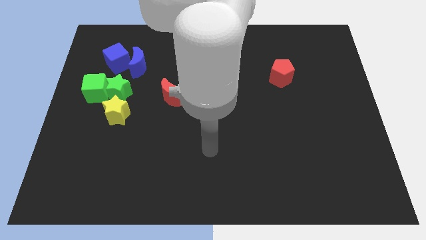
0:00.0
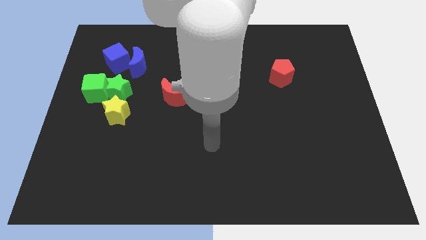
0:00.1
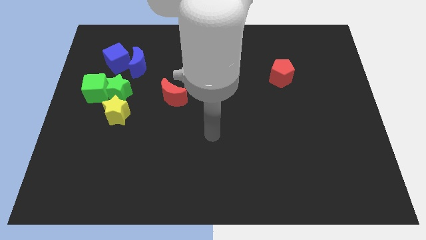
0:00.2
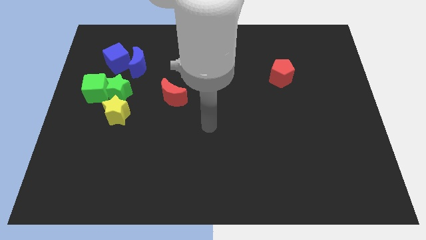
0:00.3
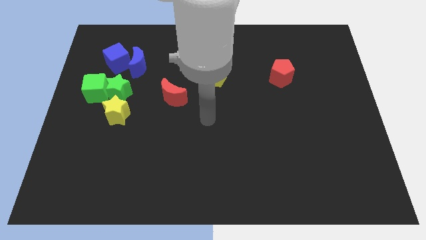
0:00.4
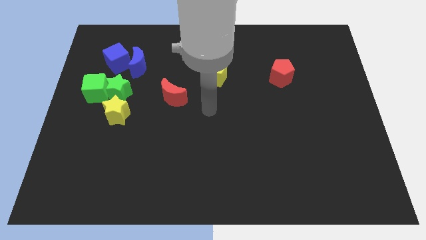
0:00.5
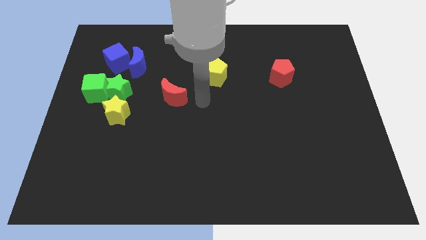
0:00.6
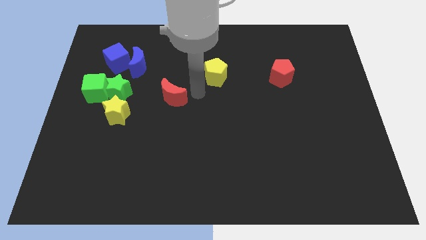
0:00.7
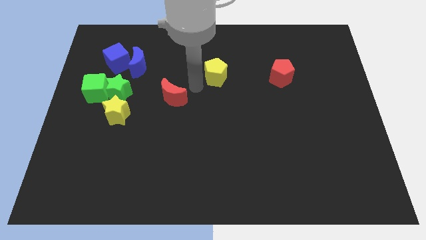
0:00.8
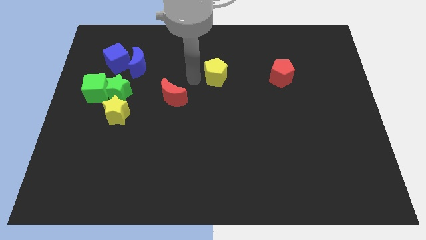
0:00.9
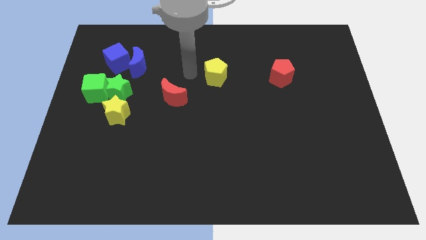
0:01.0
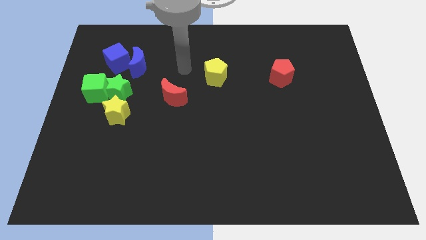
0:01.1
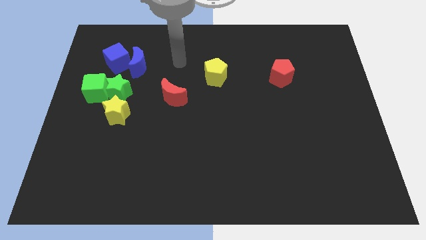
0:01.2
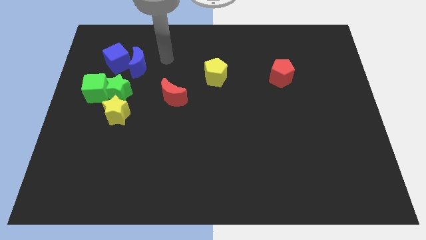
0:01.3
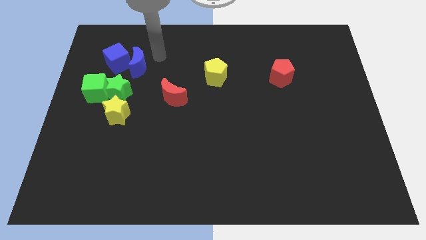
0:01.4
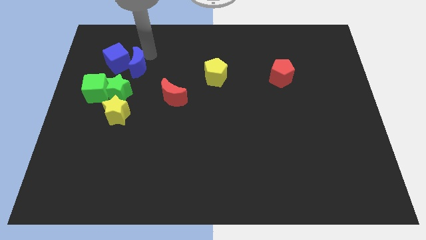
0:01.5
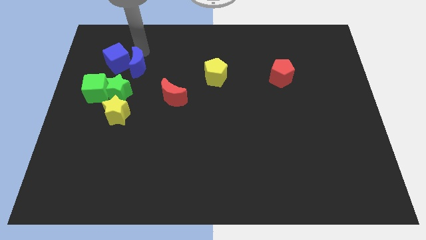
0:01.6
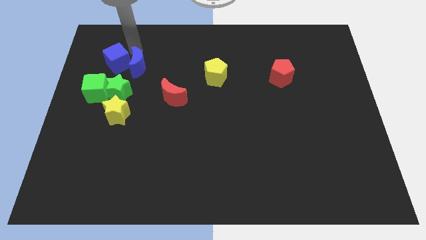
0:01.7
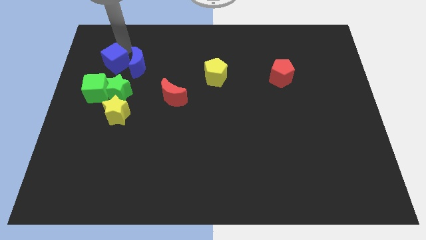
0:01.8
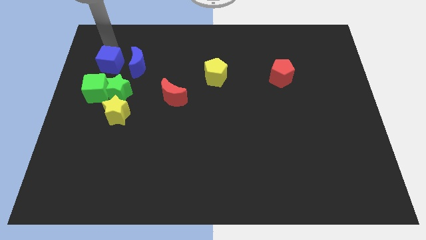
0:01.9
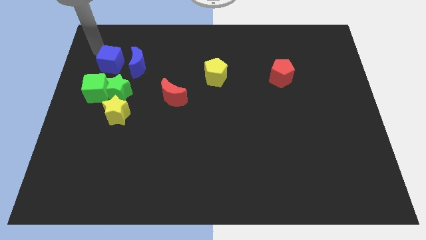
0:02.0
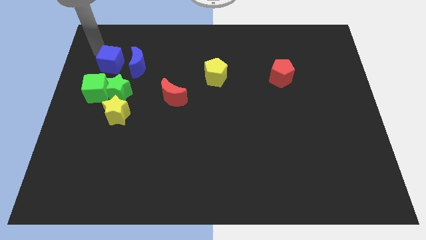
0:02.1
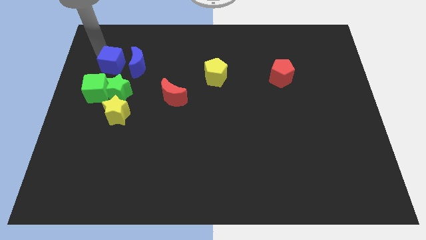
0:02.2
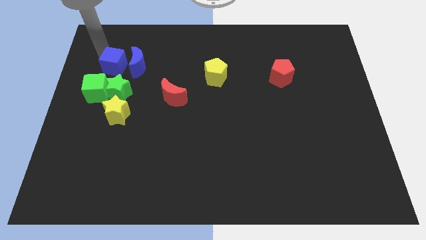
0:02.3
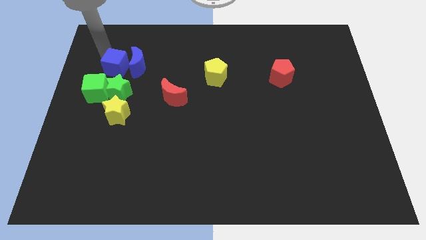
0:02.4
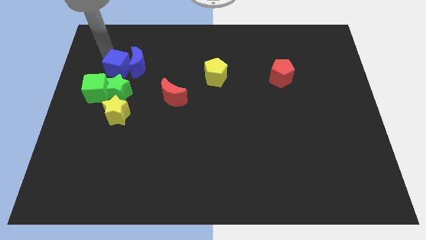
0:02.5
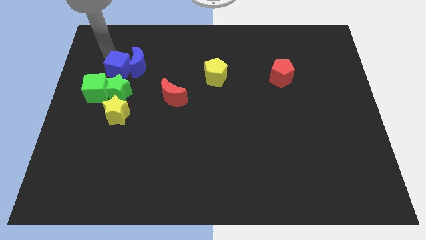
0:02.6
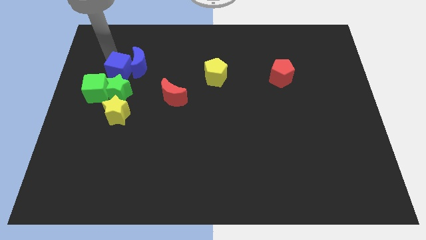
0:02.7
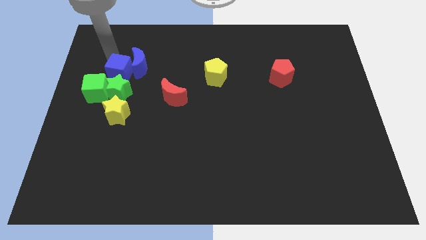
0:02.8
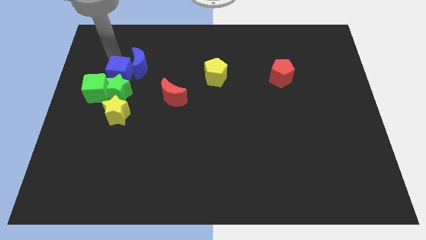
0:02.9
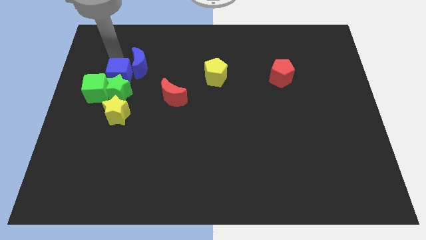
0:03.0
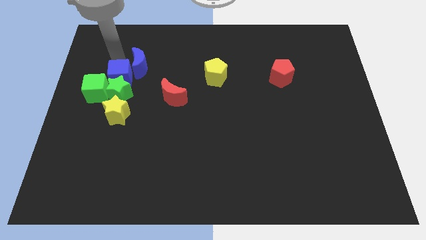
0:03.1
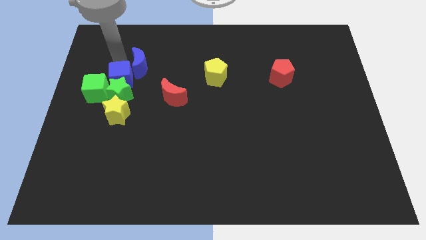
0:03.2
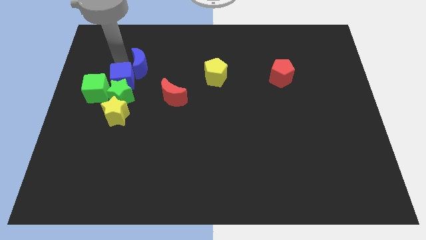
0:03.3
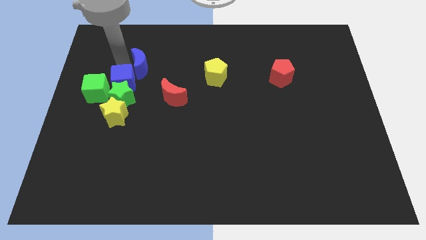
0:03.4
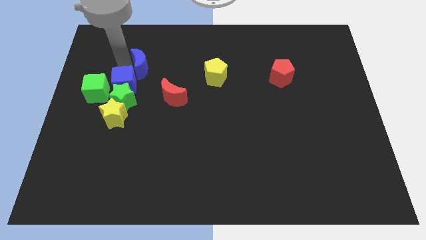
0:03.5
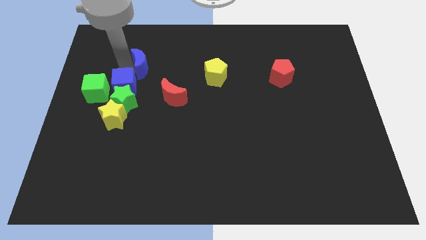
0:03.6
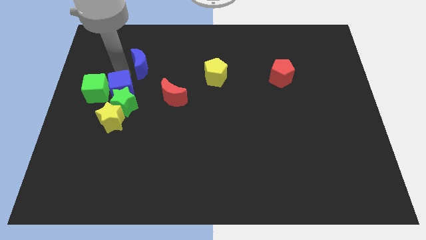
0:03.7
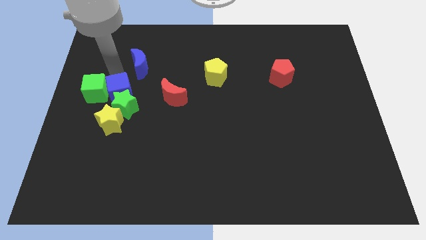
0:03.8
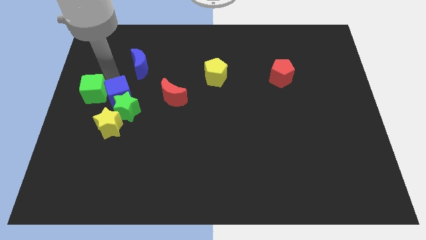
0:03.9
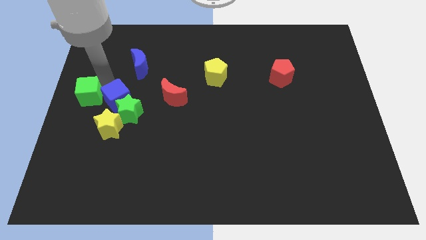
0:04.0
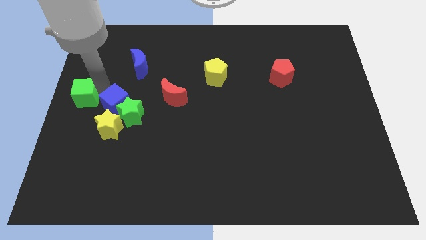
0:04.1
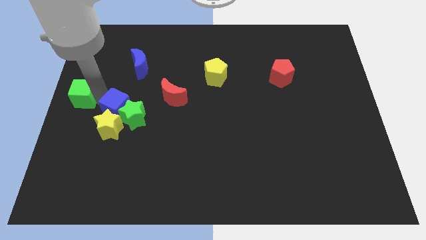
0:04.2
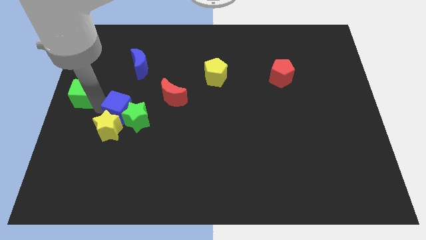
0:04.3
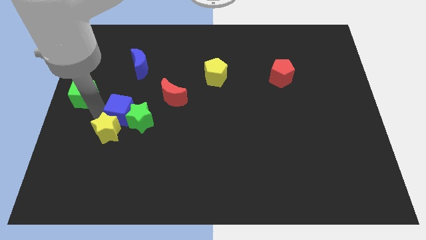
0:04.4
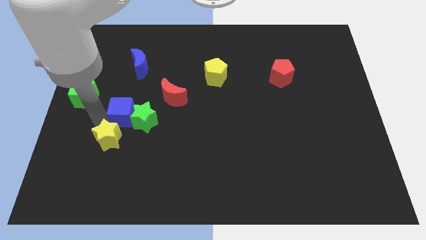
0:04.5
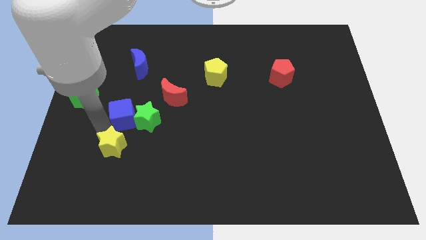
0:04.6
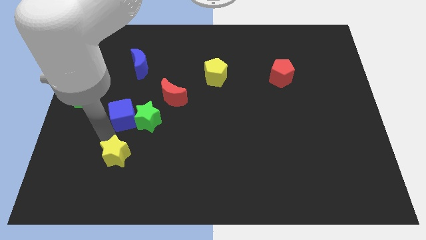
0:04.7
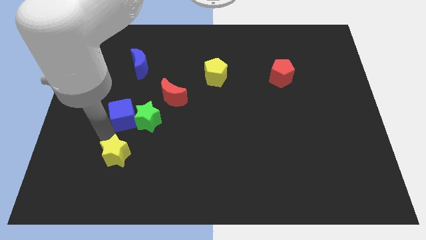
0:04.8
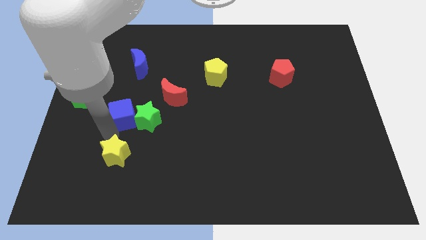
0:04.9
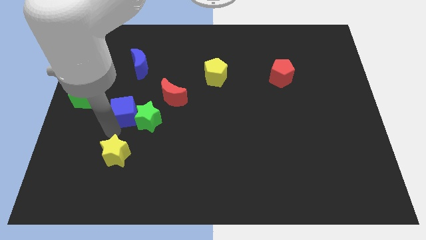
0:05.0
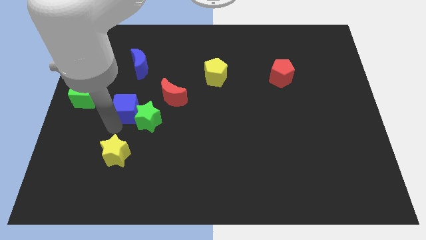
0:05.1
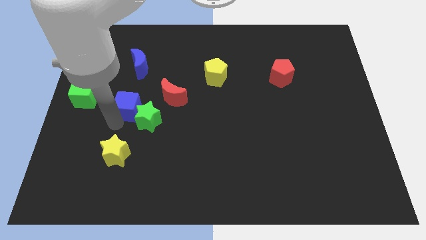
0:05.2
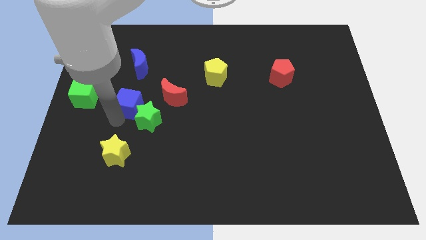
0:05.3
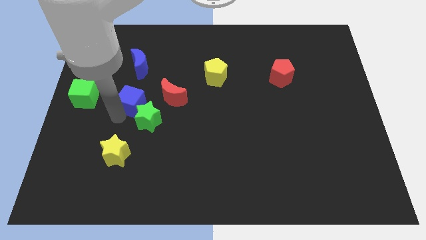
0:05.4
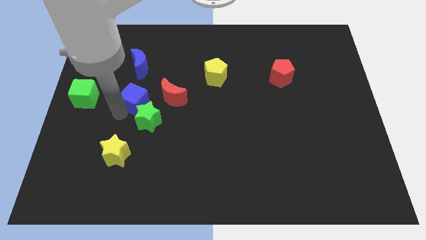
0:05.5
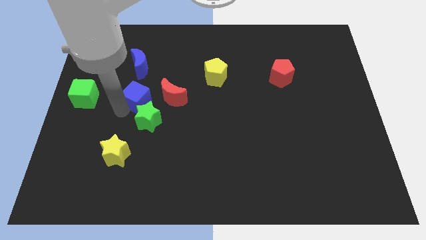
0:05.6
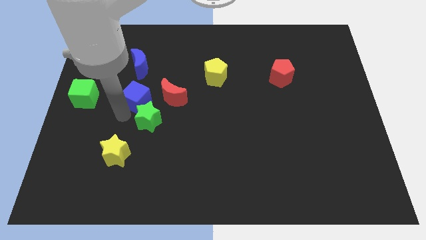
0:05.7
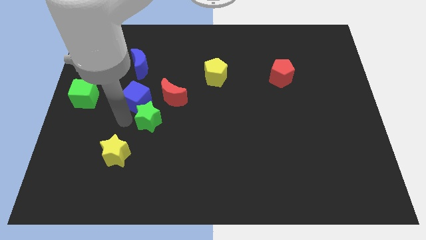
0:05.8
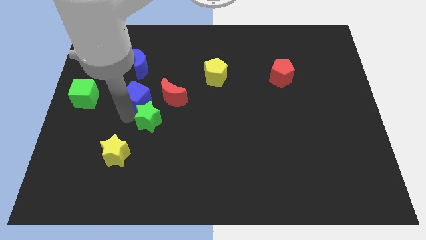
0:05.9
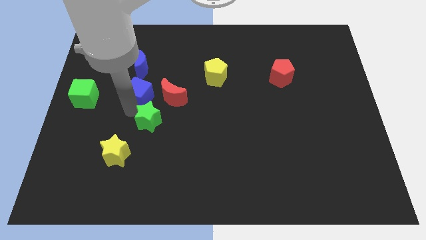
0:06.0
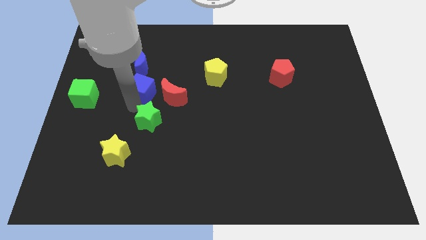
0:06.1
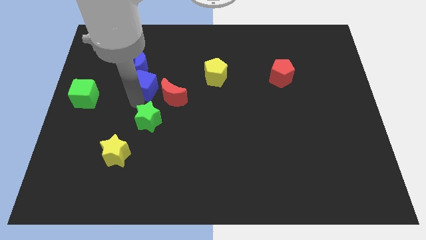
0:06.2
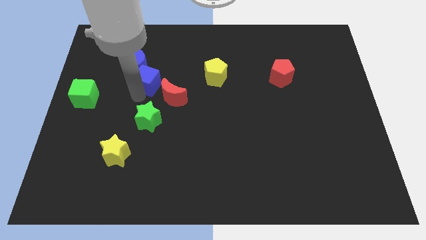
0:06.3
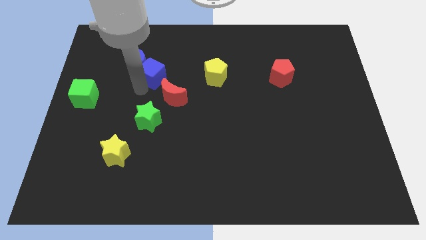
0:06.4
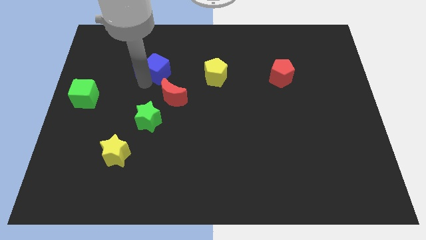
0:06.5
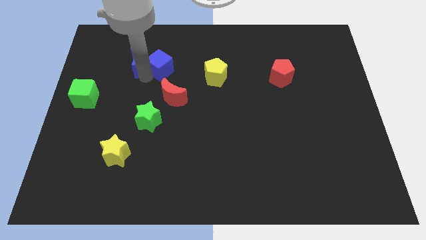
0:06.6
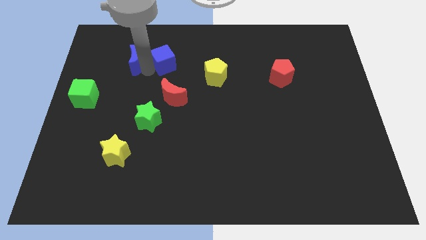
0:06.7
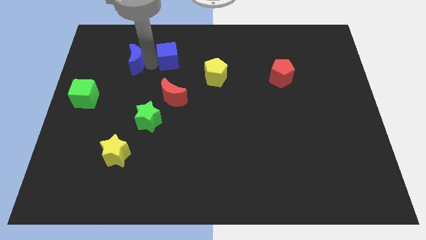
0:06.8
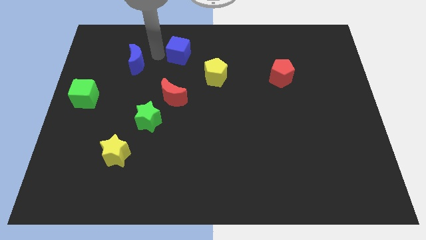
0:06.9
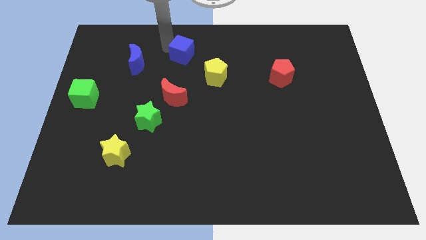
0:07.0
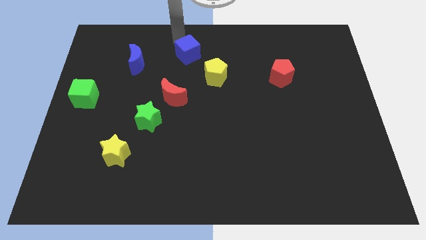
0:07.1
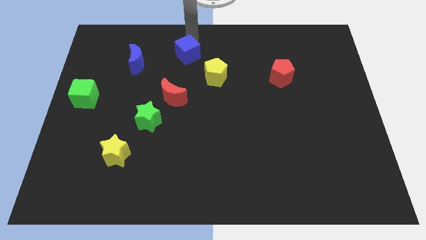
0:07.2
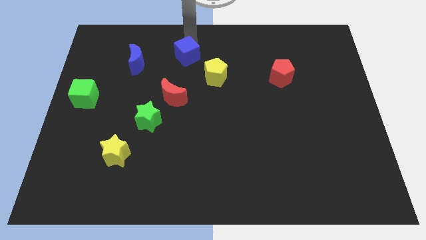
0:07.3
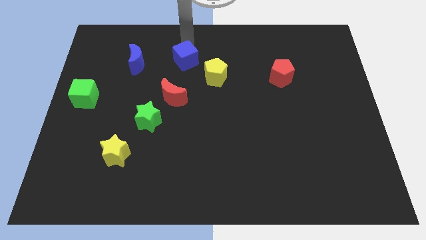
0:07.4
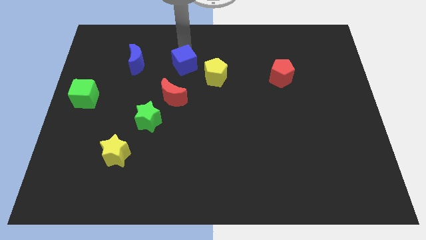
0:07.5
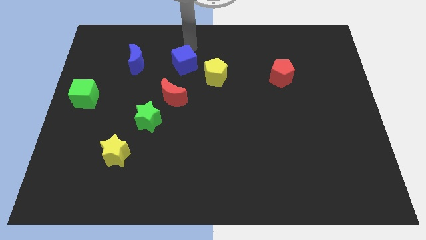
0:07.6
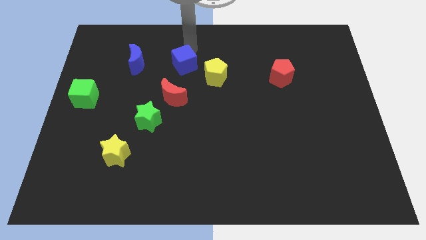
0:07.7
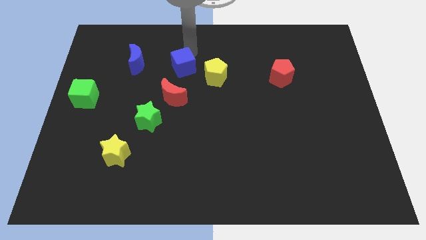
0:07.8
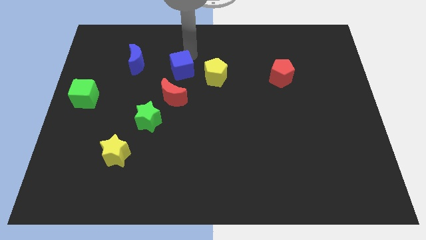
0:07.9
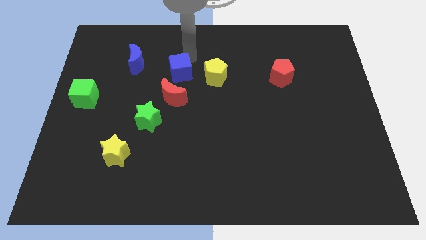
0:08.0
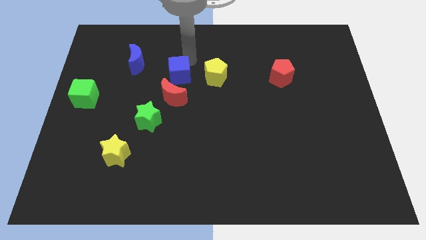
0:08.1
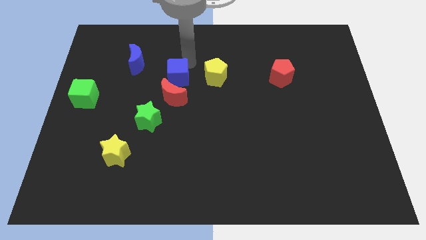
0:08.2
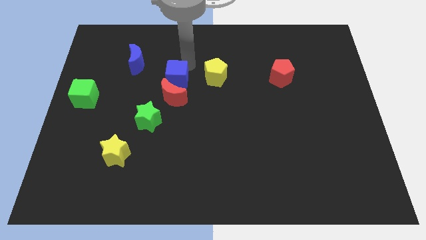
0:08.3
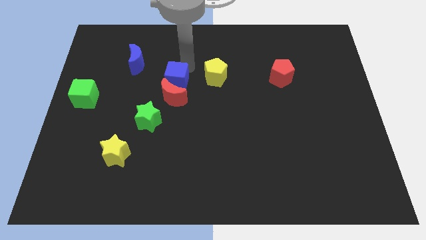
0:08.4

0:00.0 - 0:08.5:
slide the blue cube close to the red moon
